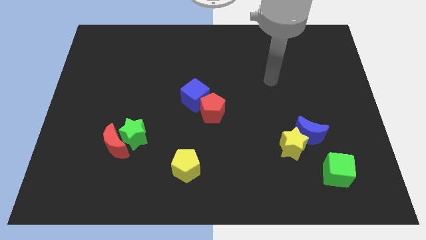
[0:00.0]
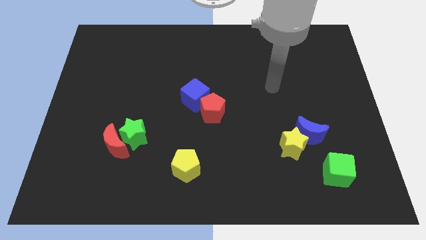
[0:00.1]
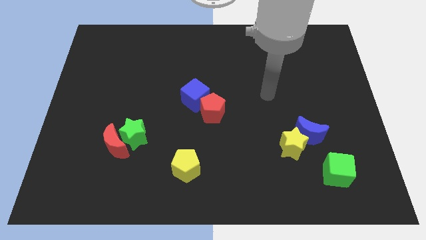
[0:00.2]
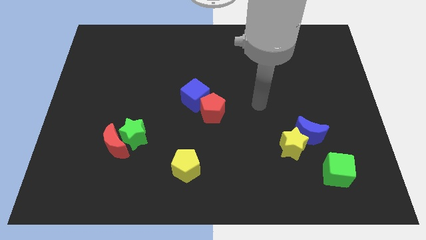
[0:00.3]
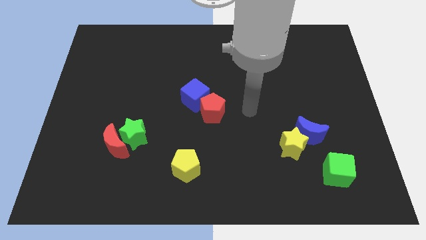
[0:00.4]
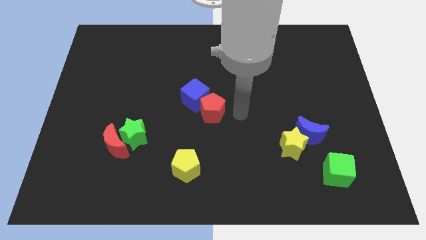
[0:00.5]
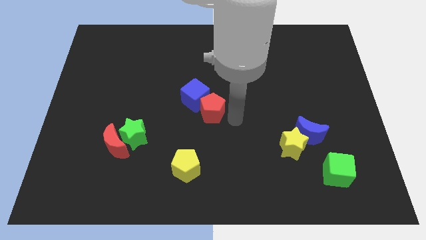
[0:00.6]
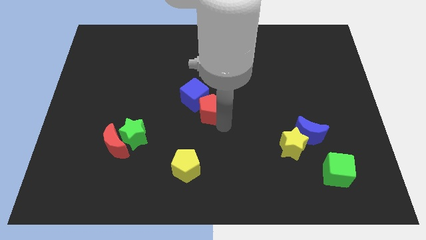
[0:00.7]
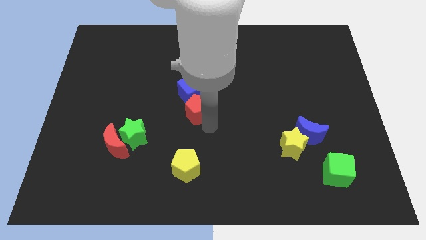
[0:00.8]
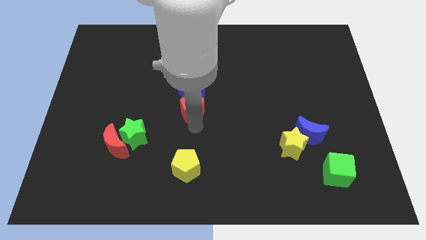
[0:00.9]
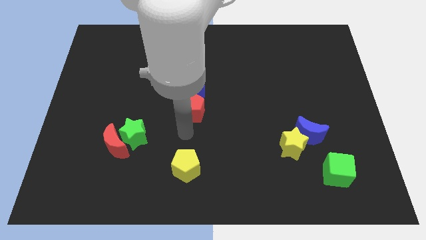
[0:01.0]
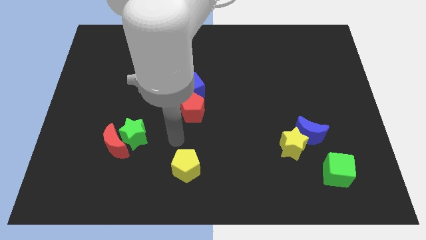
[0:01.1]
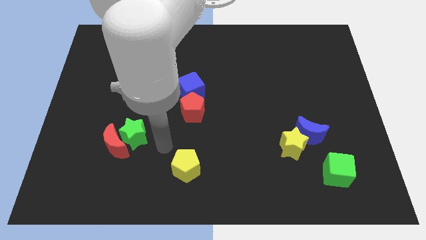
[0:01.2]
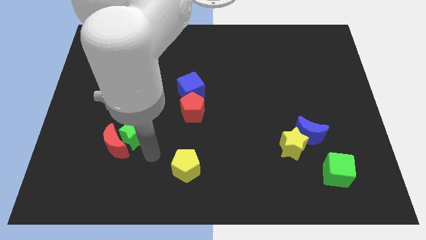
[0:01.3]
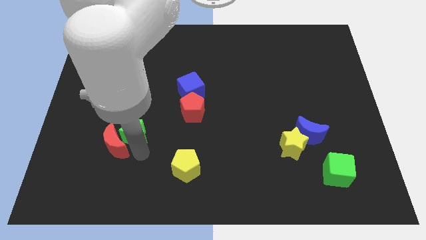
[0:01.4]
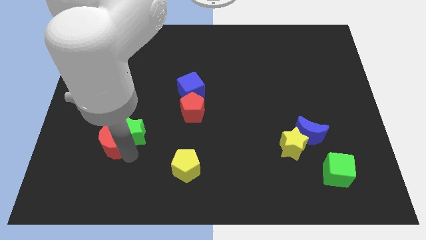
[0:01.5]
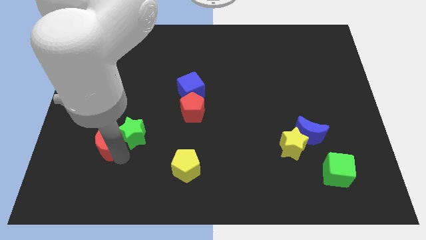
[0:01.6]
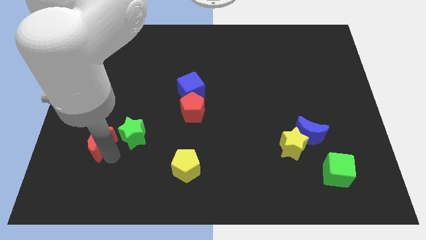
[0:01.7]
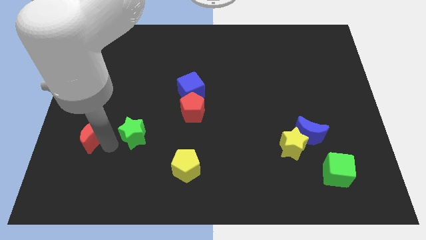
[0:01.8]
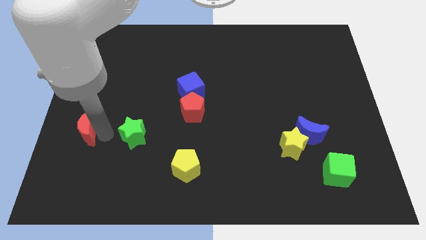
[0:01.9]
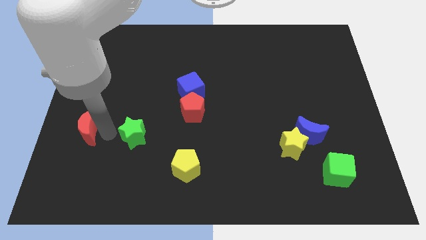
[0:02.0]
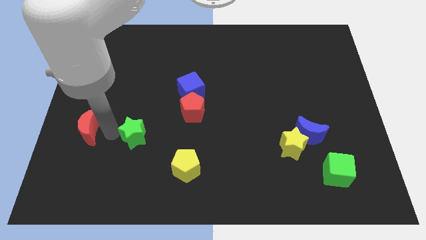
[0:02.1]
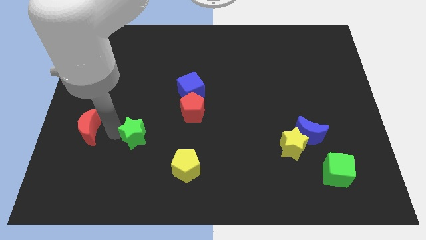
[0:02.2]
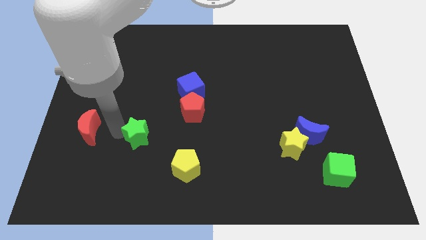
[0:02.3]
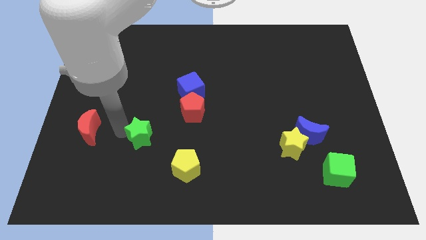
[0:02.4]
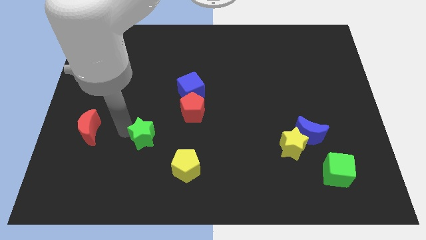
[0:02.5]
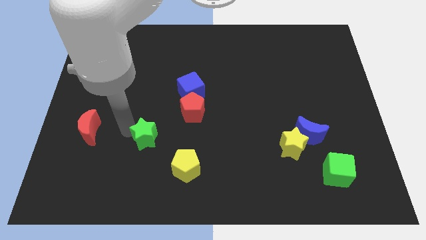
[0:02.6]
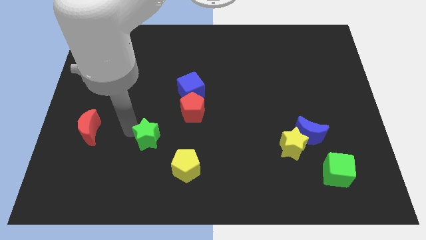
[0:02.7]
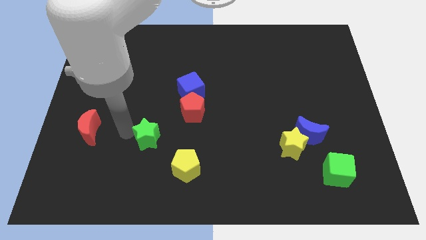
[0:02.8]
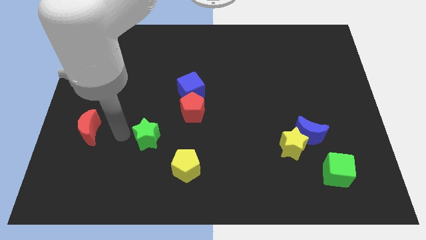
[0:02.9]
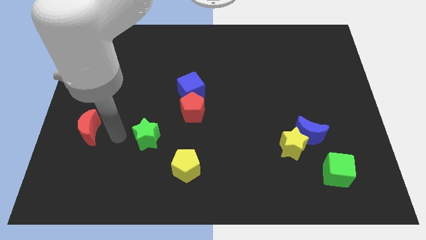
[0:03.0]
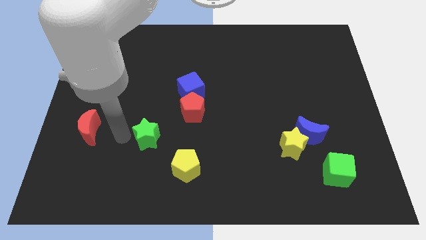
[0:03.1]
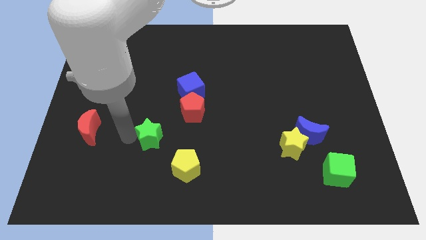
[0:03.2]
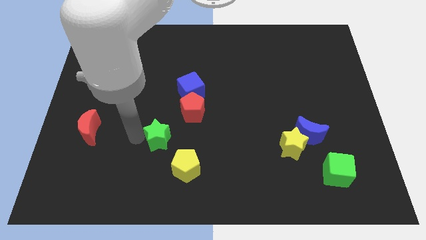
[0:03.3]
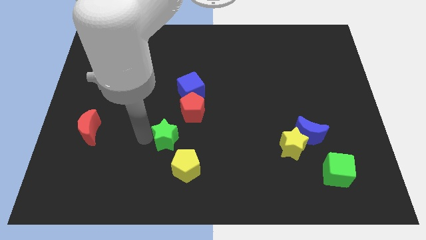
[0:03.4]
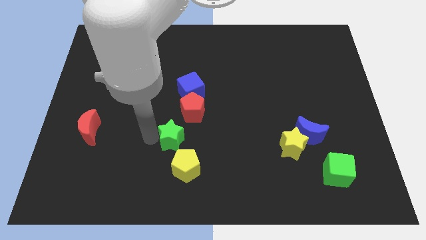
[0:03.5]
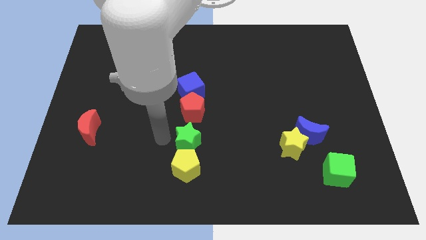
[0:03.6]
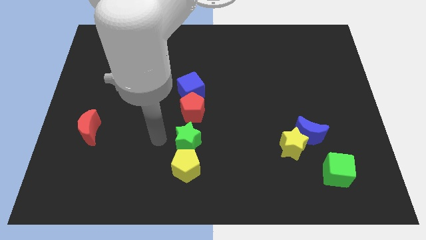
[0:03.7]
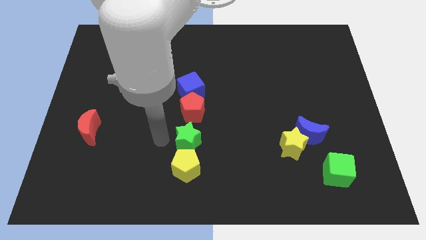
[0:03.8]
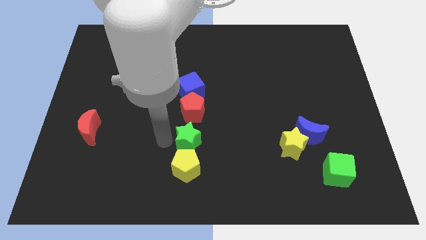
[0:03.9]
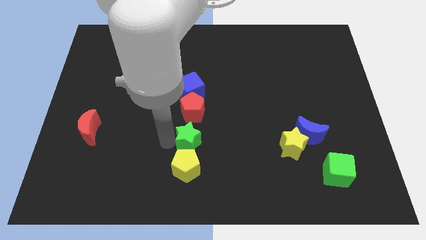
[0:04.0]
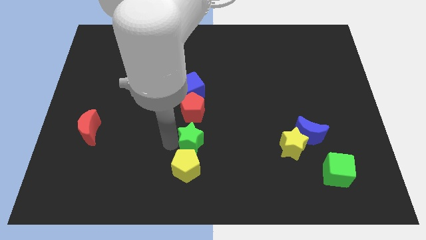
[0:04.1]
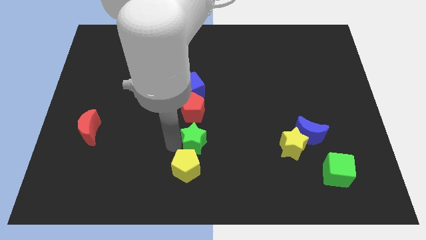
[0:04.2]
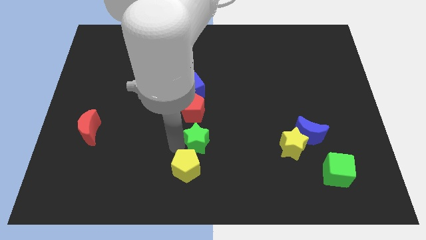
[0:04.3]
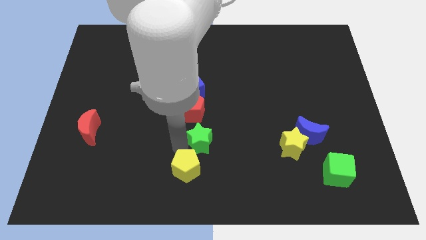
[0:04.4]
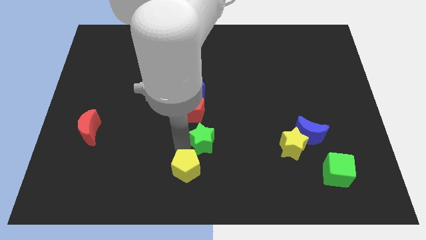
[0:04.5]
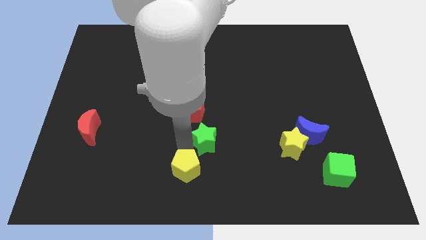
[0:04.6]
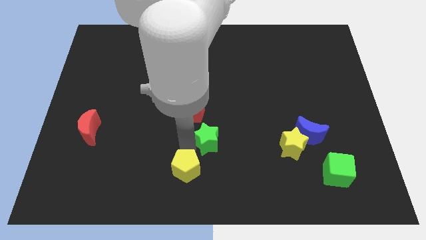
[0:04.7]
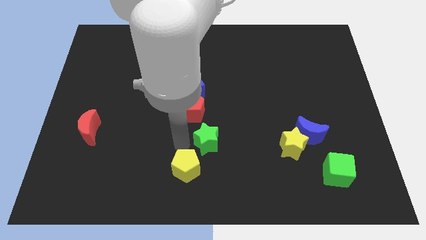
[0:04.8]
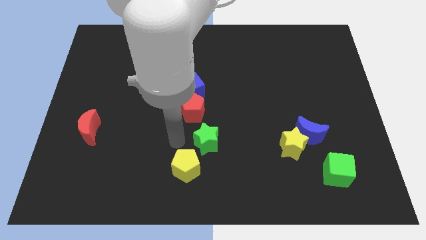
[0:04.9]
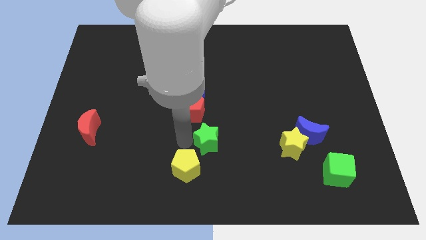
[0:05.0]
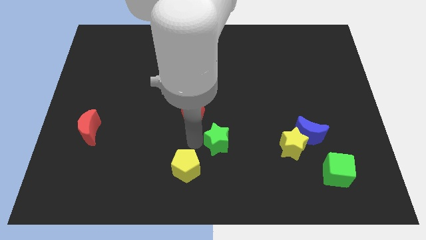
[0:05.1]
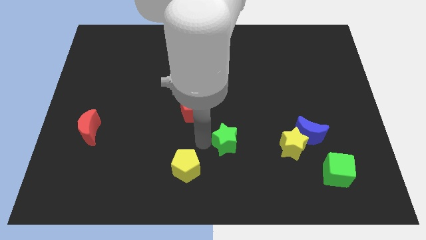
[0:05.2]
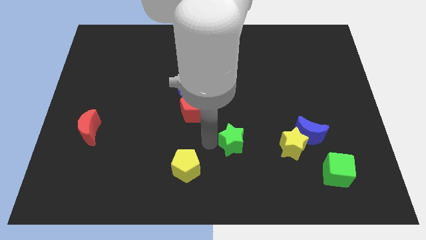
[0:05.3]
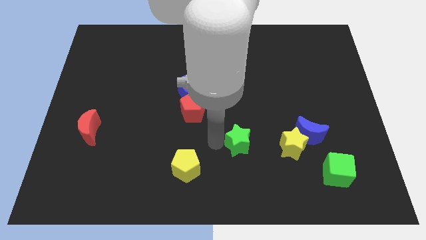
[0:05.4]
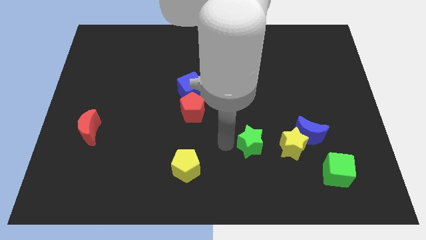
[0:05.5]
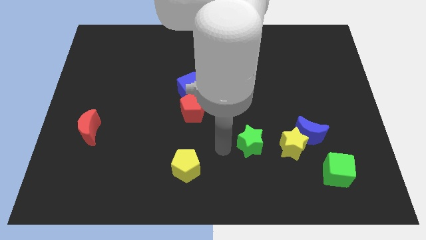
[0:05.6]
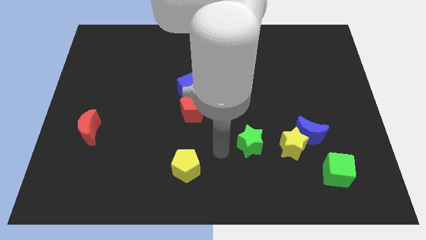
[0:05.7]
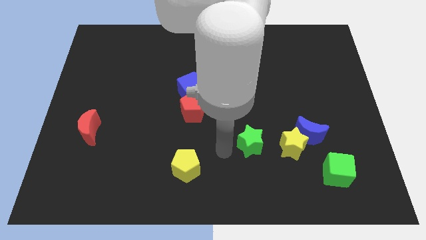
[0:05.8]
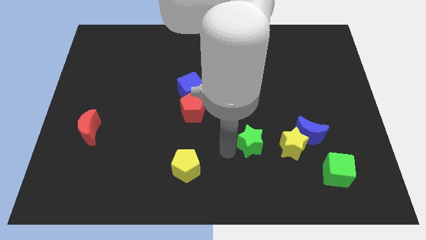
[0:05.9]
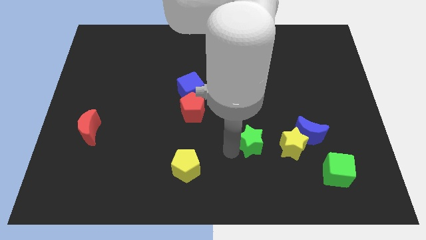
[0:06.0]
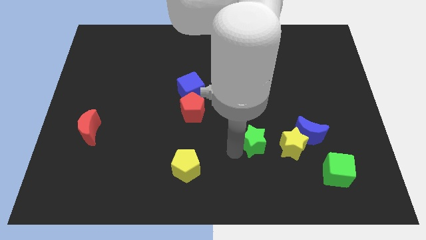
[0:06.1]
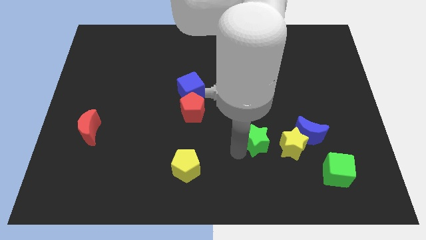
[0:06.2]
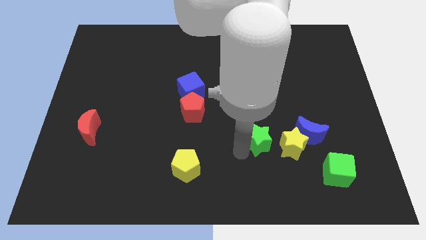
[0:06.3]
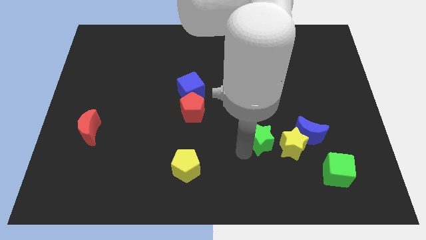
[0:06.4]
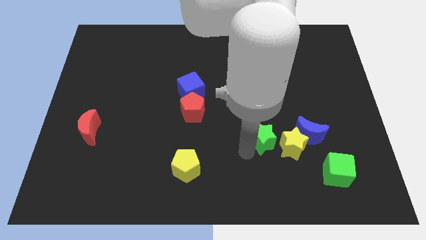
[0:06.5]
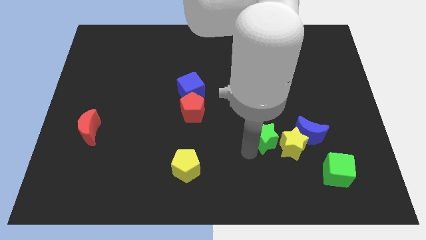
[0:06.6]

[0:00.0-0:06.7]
put the green star close to the yellow star
